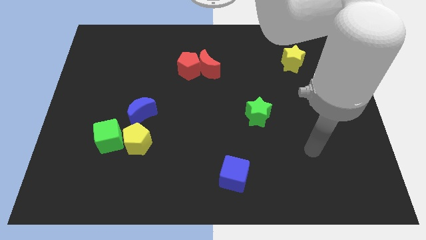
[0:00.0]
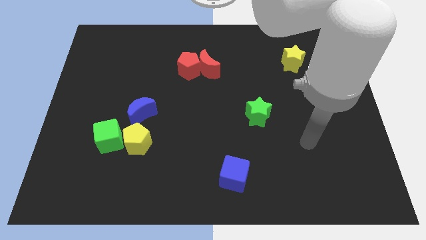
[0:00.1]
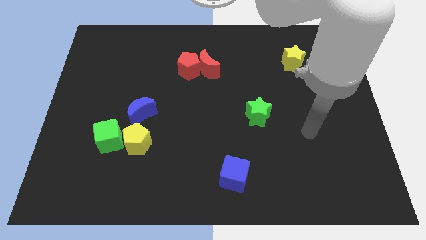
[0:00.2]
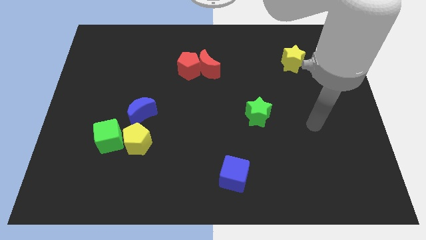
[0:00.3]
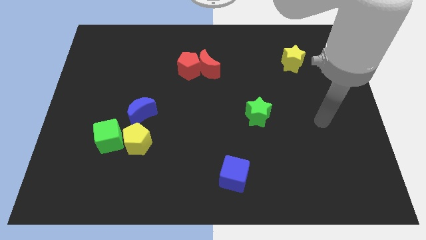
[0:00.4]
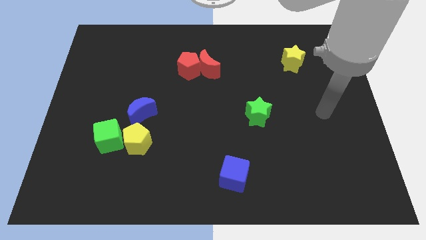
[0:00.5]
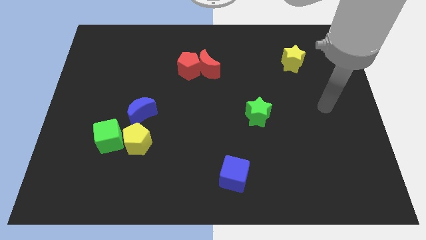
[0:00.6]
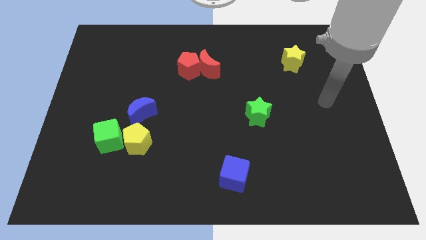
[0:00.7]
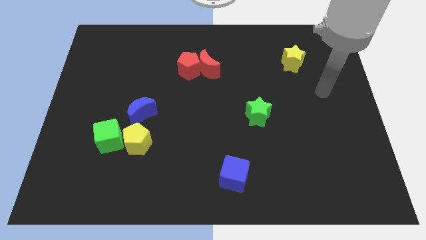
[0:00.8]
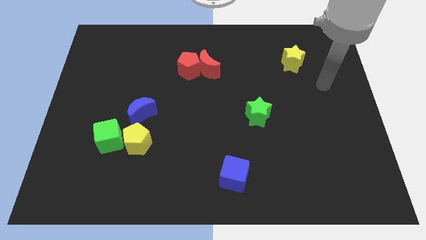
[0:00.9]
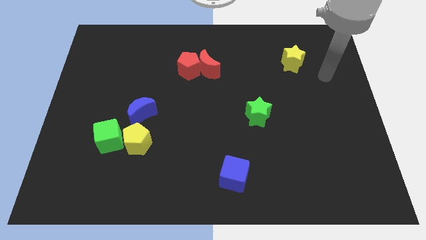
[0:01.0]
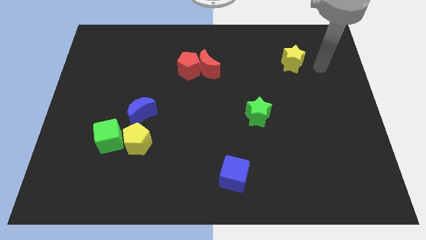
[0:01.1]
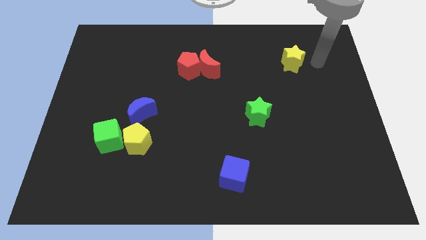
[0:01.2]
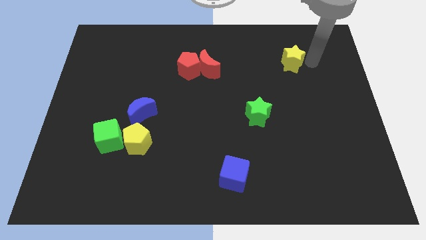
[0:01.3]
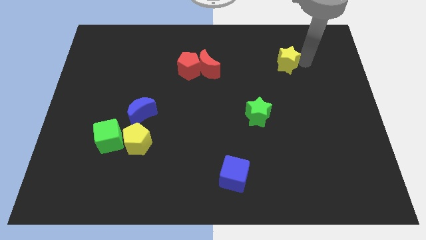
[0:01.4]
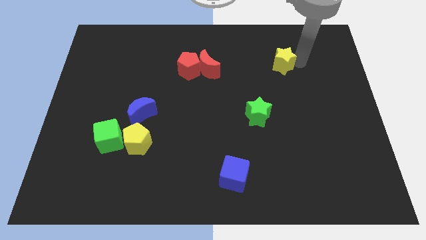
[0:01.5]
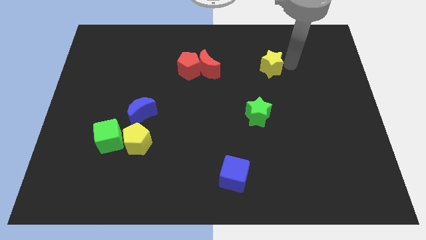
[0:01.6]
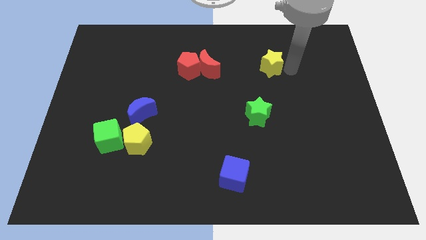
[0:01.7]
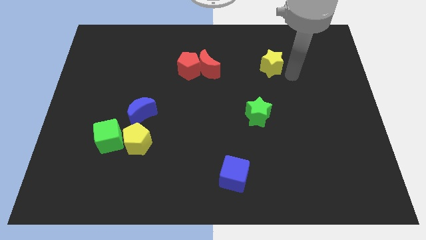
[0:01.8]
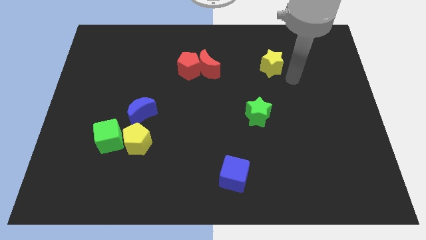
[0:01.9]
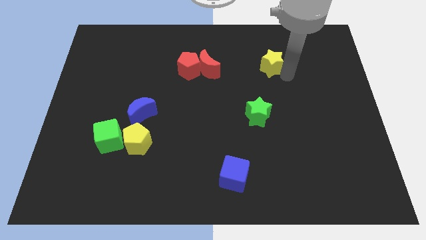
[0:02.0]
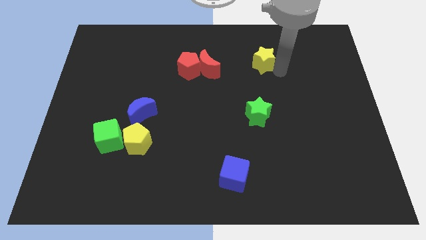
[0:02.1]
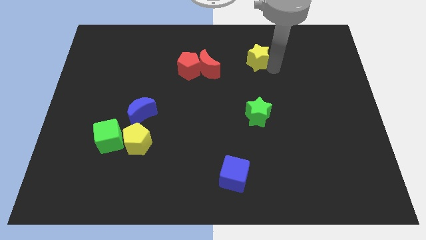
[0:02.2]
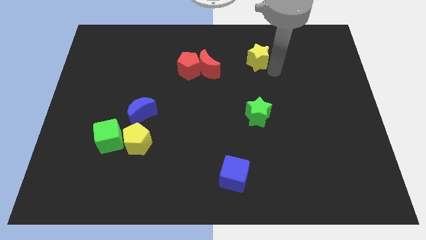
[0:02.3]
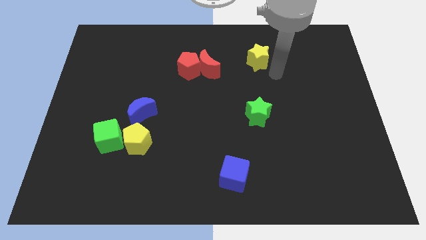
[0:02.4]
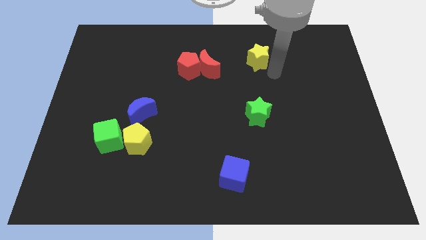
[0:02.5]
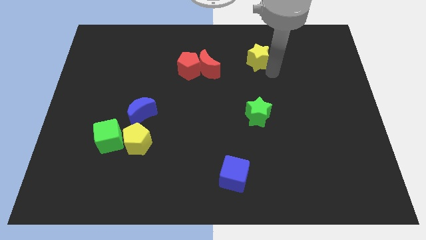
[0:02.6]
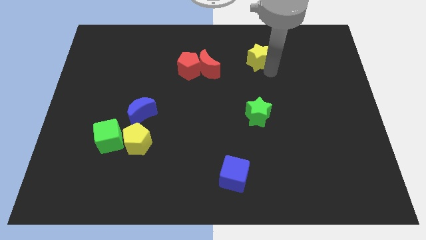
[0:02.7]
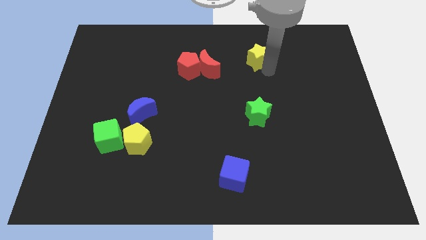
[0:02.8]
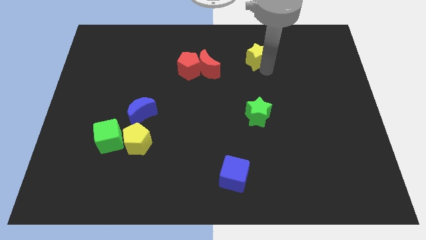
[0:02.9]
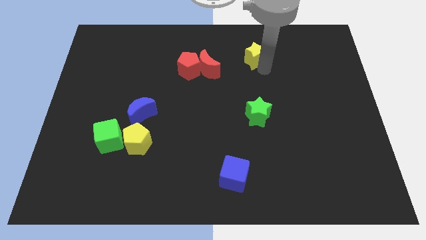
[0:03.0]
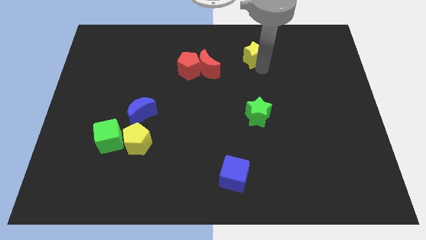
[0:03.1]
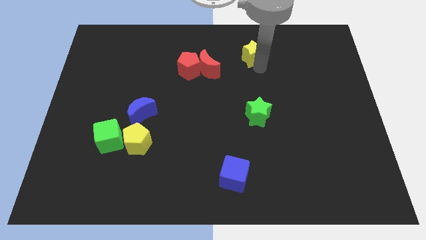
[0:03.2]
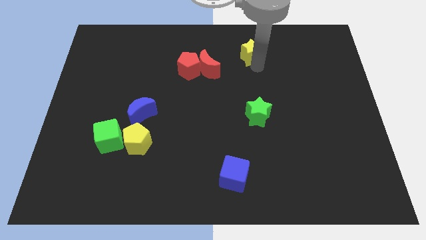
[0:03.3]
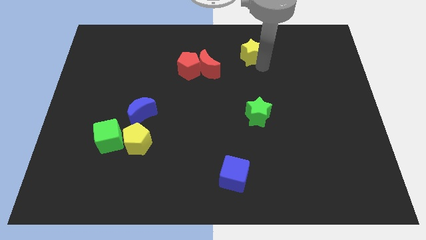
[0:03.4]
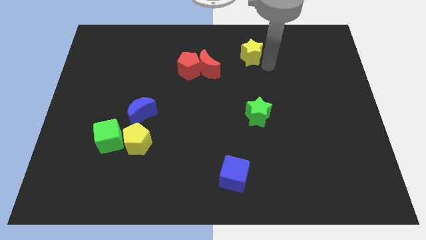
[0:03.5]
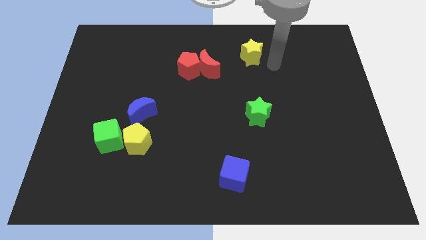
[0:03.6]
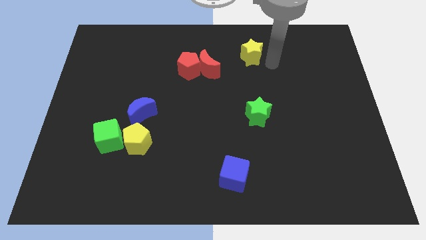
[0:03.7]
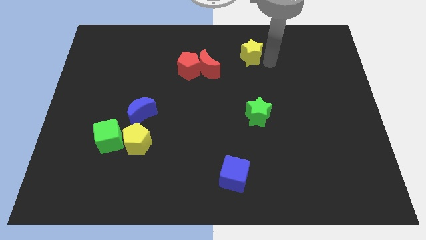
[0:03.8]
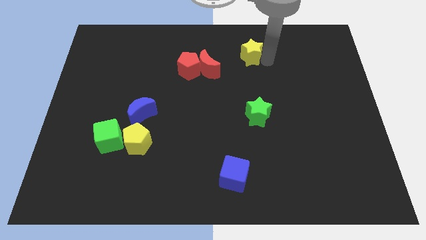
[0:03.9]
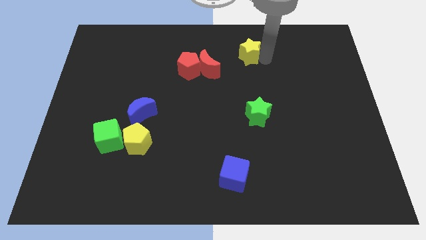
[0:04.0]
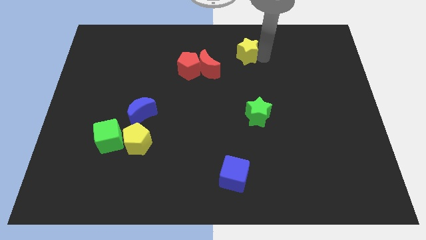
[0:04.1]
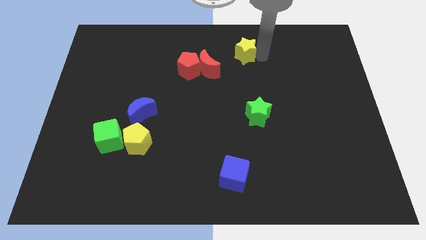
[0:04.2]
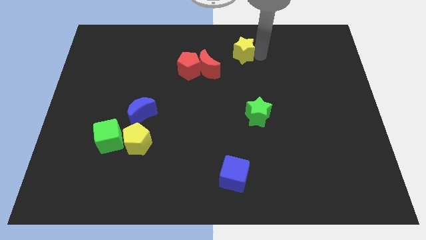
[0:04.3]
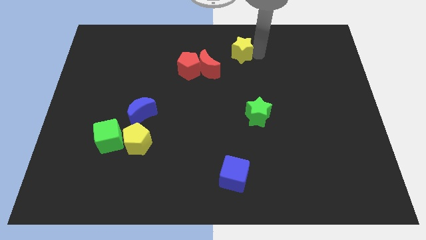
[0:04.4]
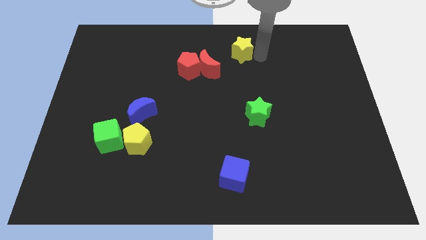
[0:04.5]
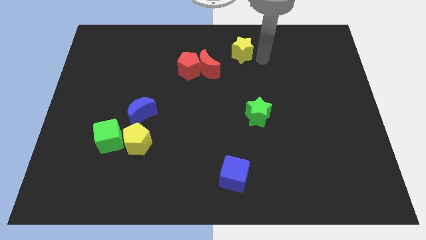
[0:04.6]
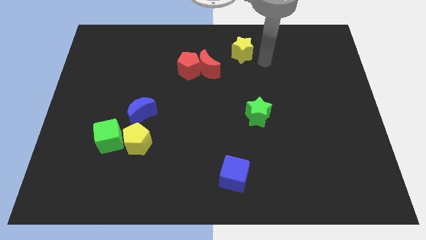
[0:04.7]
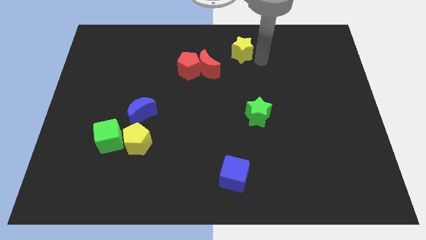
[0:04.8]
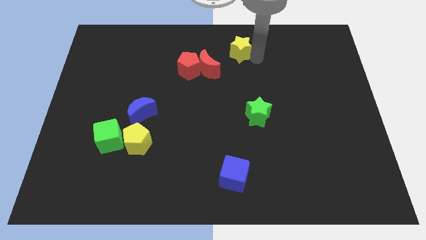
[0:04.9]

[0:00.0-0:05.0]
push the yellow star to the top

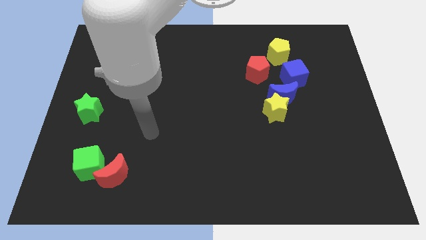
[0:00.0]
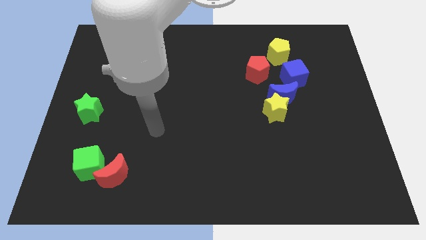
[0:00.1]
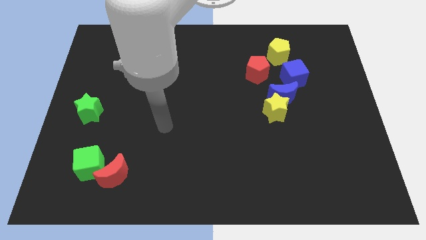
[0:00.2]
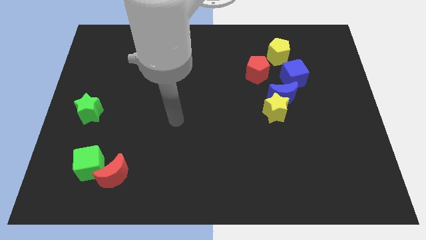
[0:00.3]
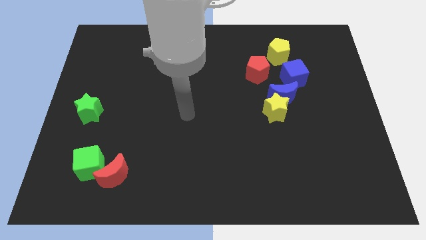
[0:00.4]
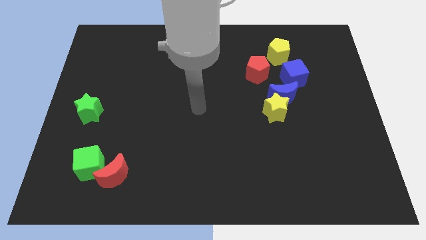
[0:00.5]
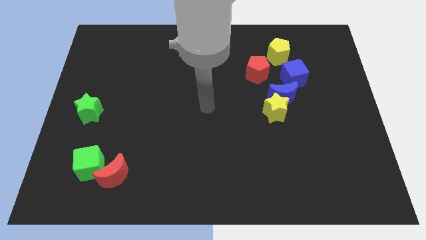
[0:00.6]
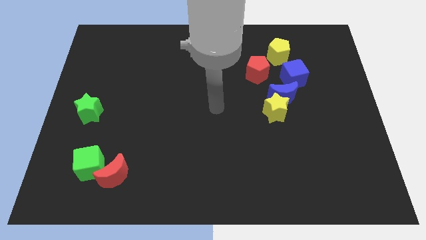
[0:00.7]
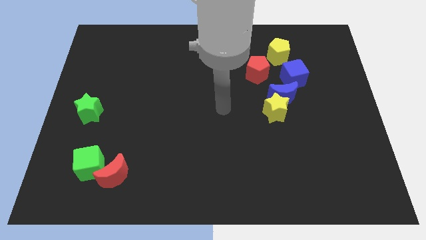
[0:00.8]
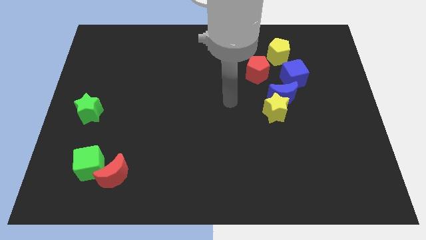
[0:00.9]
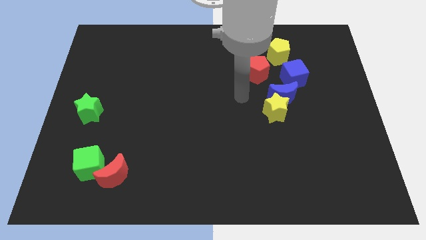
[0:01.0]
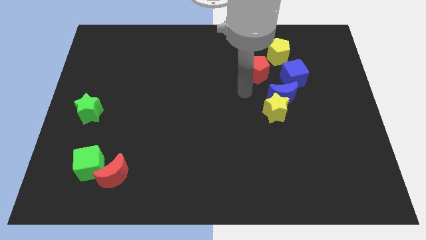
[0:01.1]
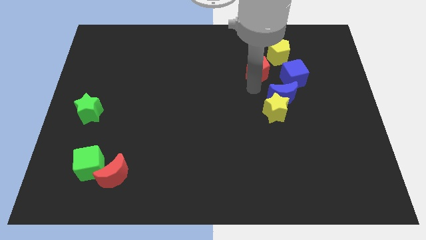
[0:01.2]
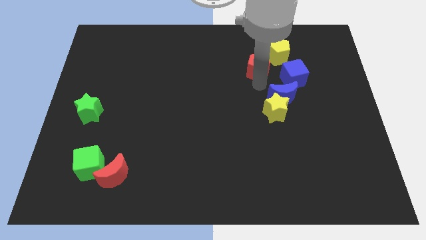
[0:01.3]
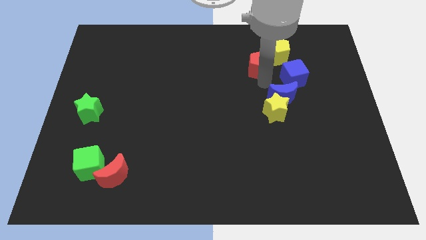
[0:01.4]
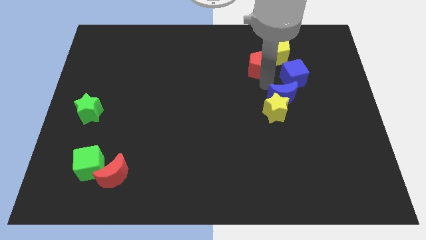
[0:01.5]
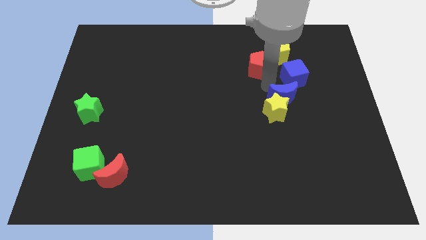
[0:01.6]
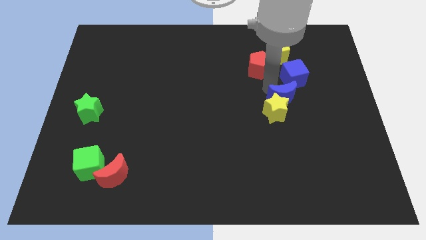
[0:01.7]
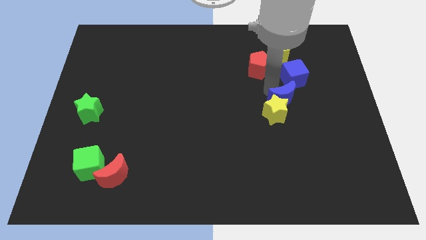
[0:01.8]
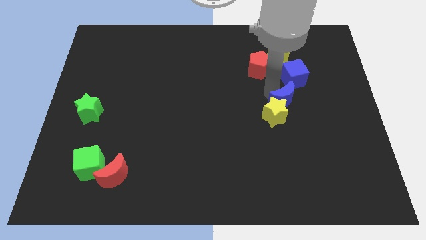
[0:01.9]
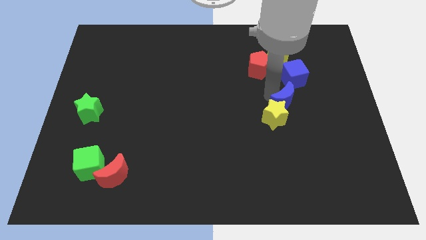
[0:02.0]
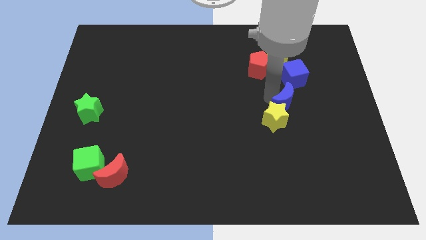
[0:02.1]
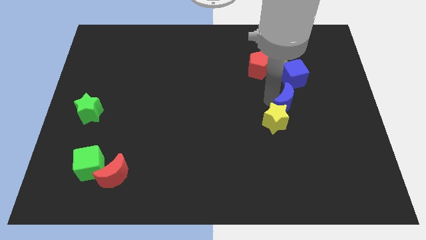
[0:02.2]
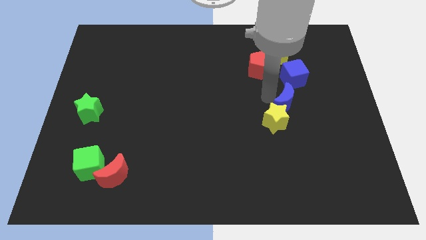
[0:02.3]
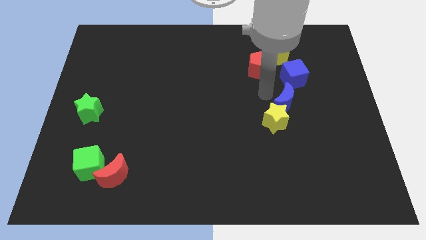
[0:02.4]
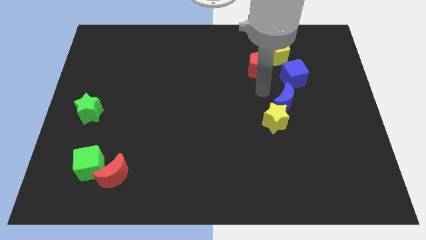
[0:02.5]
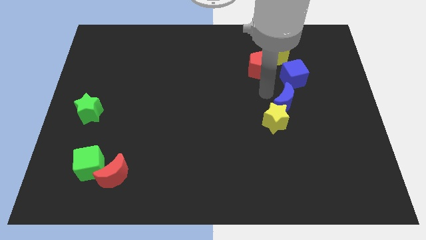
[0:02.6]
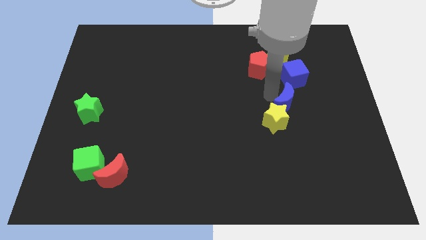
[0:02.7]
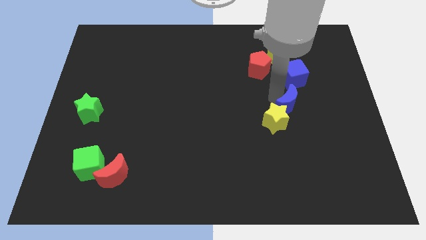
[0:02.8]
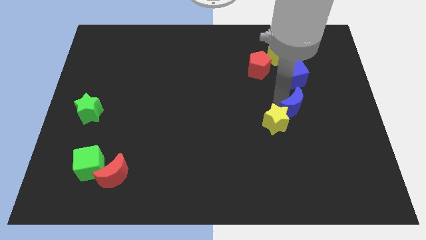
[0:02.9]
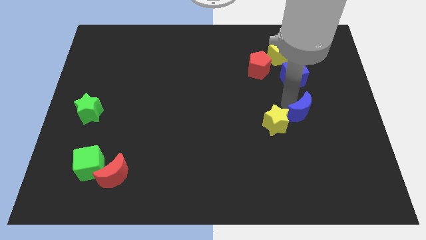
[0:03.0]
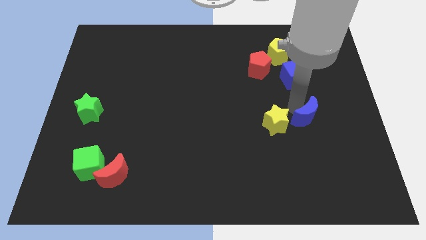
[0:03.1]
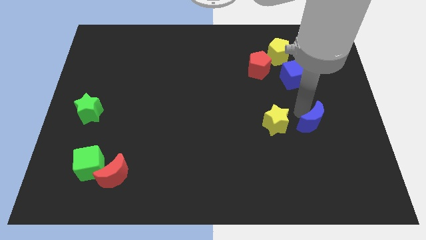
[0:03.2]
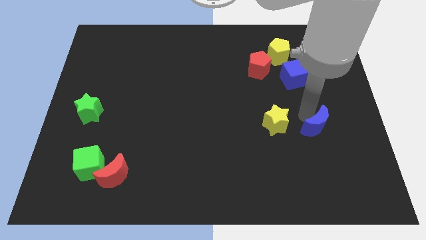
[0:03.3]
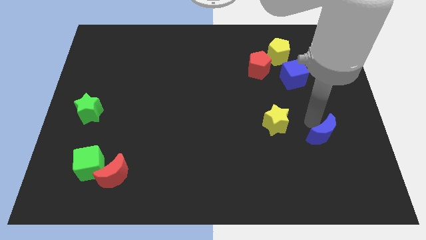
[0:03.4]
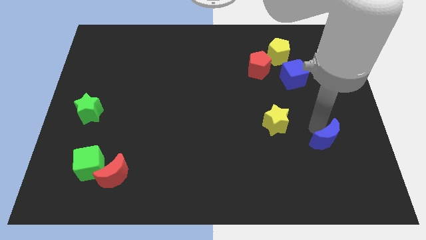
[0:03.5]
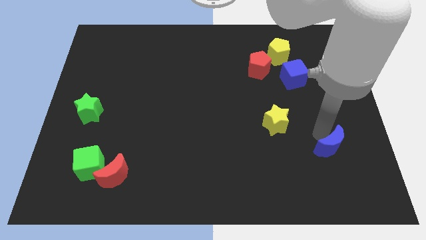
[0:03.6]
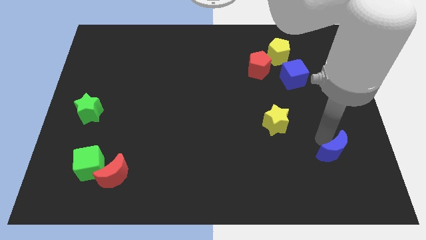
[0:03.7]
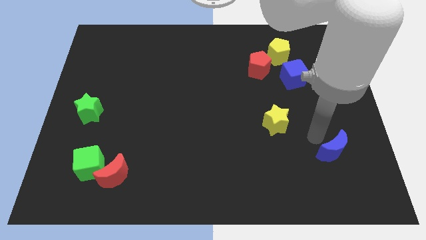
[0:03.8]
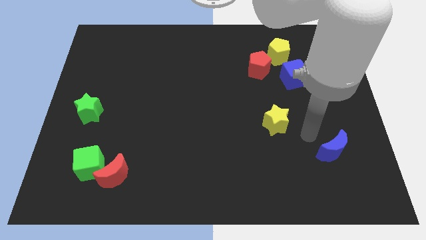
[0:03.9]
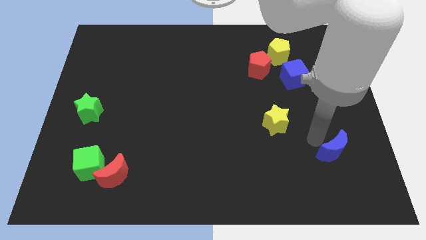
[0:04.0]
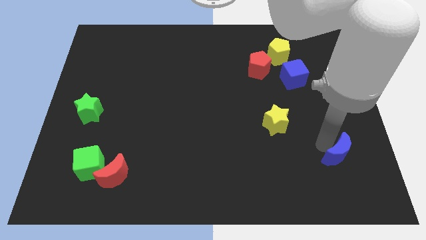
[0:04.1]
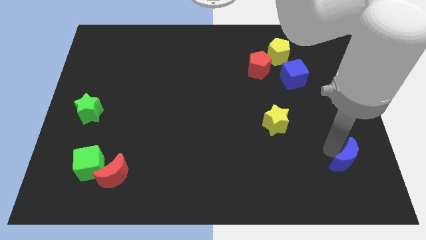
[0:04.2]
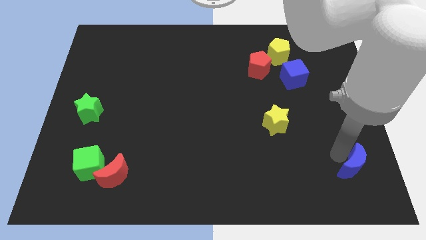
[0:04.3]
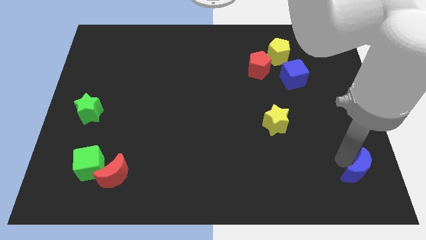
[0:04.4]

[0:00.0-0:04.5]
put the blue moon to the bottom right of the board
